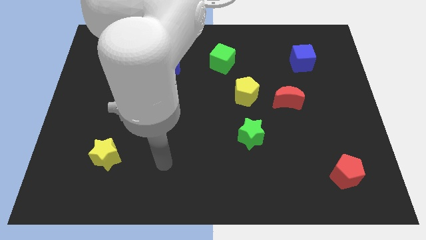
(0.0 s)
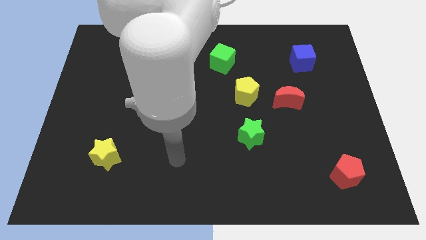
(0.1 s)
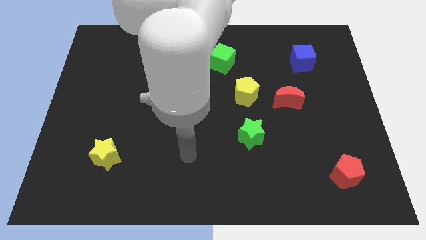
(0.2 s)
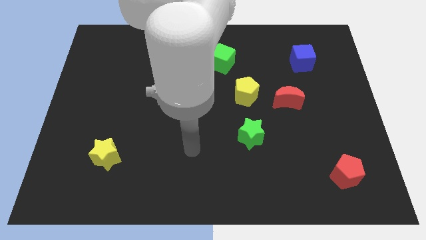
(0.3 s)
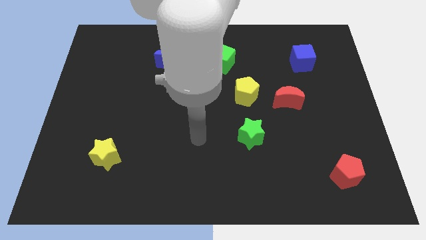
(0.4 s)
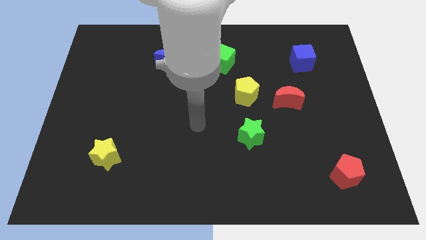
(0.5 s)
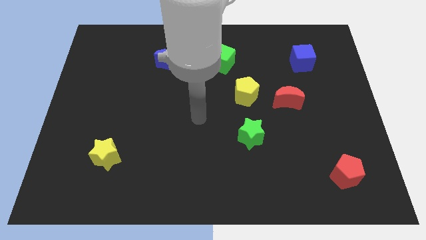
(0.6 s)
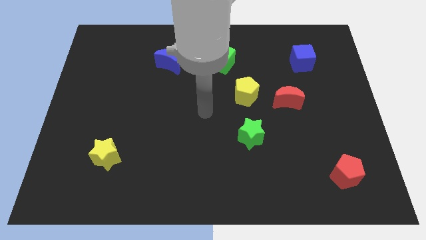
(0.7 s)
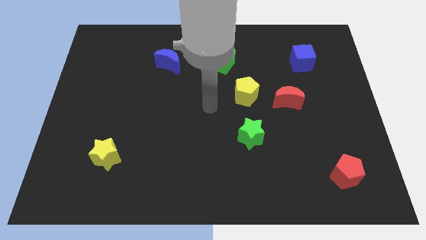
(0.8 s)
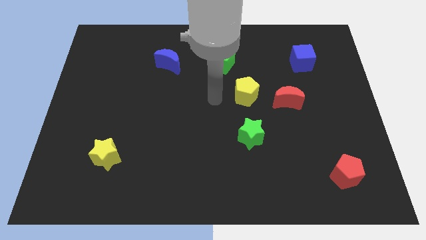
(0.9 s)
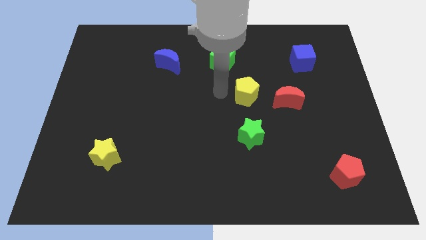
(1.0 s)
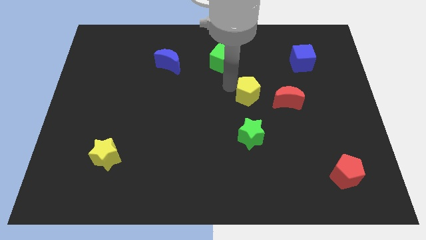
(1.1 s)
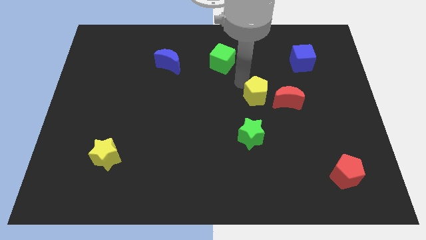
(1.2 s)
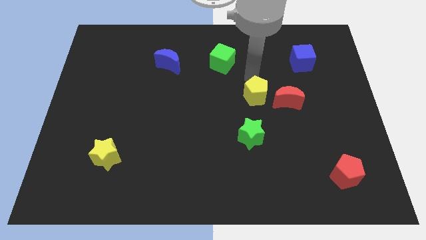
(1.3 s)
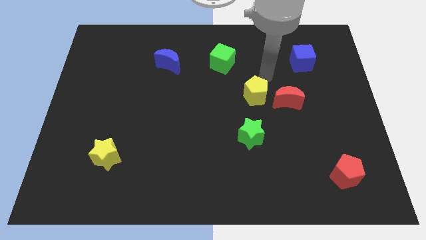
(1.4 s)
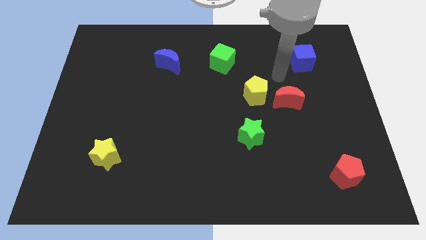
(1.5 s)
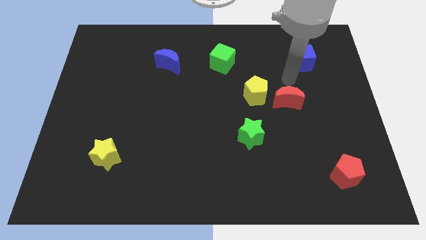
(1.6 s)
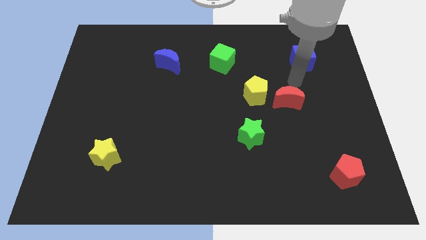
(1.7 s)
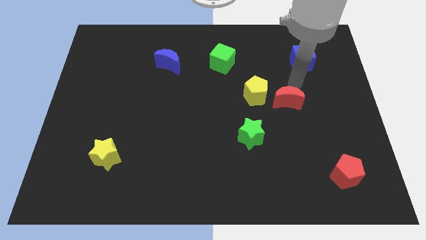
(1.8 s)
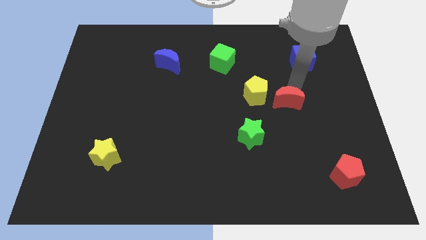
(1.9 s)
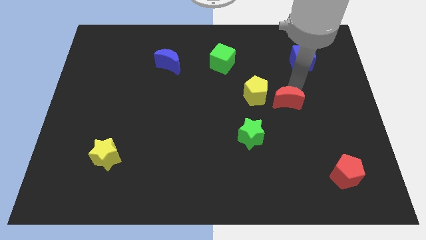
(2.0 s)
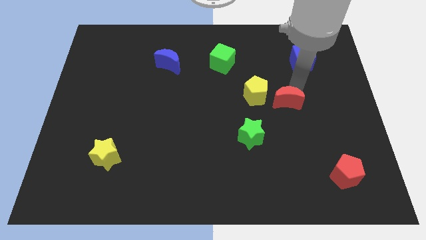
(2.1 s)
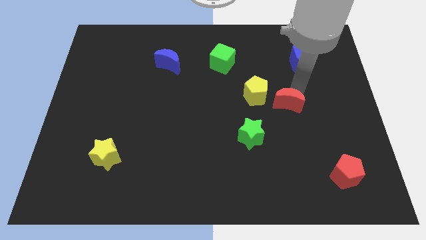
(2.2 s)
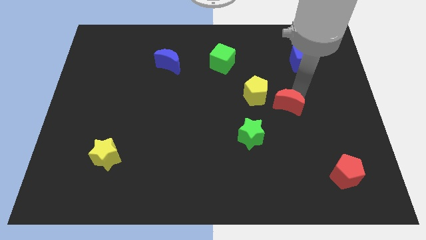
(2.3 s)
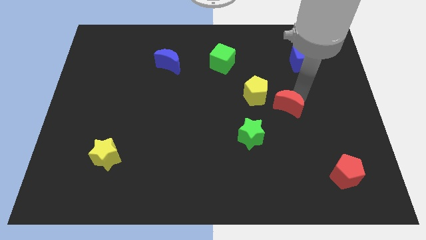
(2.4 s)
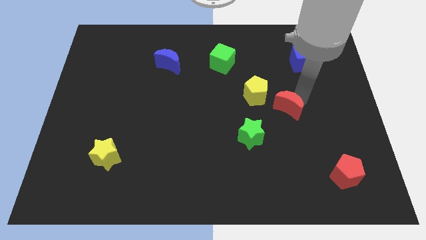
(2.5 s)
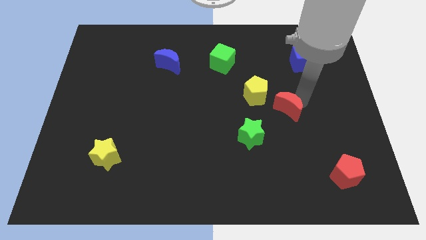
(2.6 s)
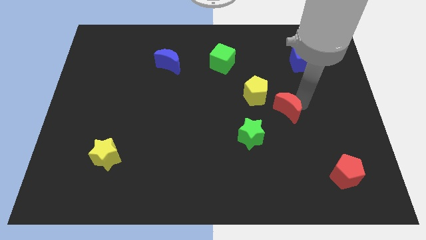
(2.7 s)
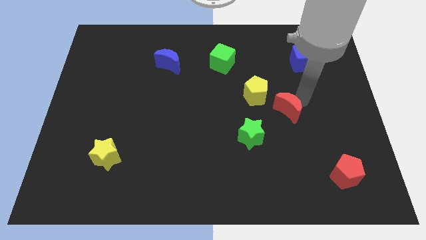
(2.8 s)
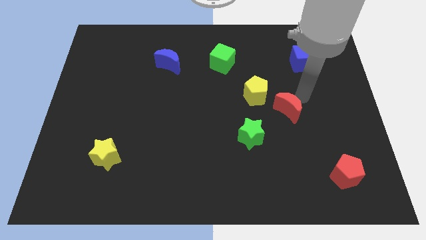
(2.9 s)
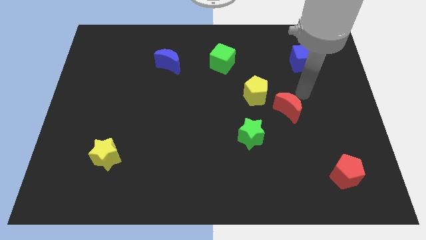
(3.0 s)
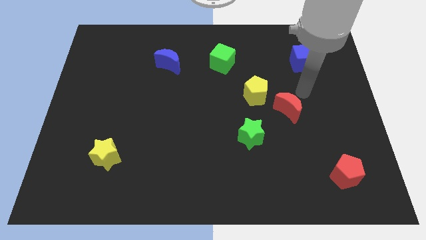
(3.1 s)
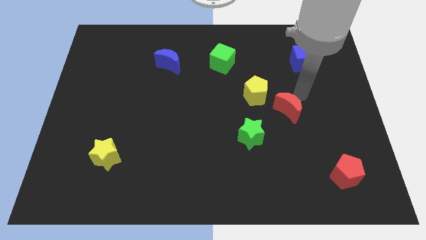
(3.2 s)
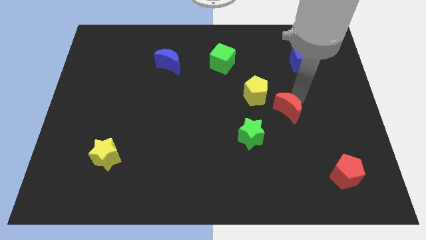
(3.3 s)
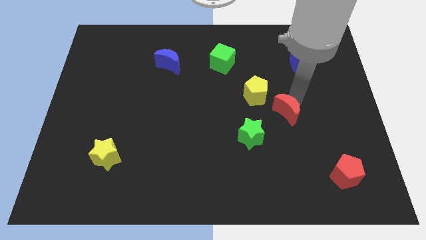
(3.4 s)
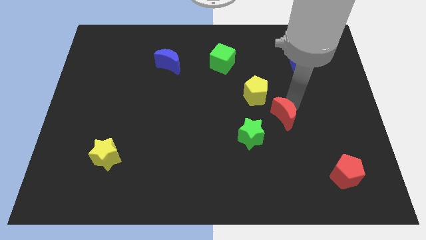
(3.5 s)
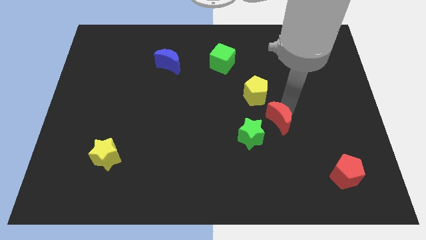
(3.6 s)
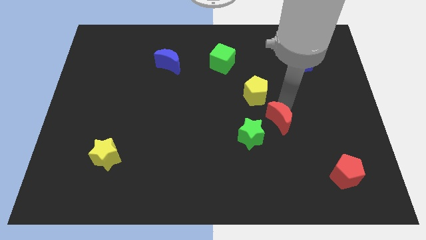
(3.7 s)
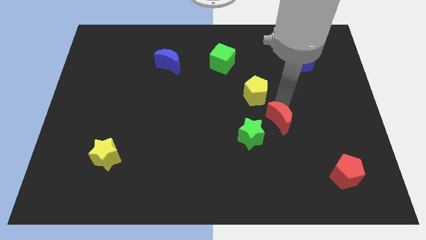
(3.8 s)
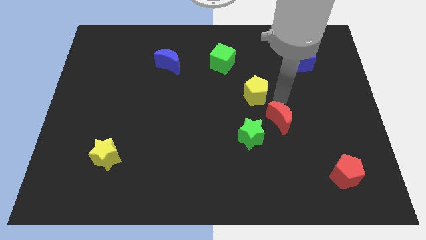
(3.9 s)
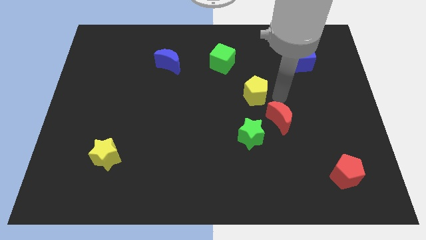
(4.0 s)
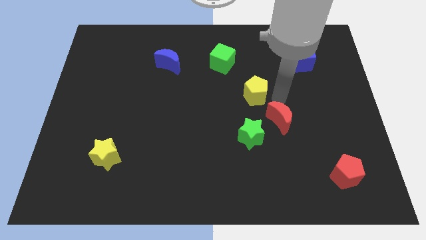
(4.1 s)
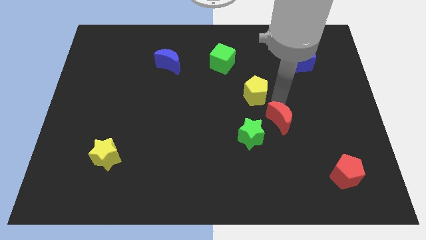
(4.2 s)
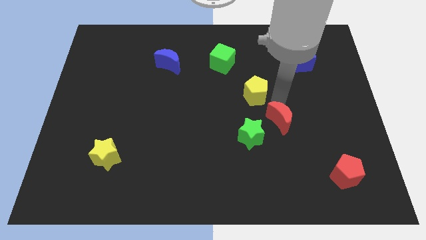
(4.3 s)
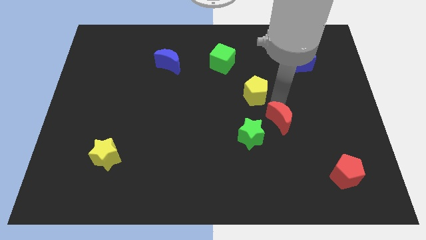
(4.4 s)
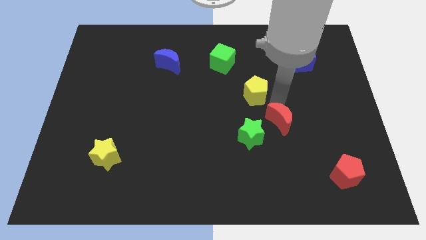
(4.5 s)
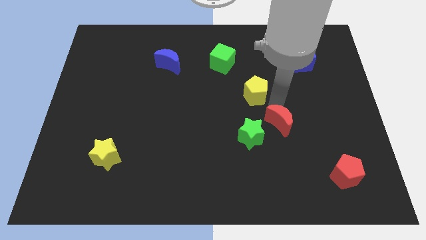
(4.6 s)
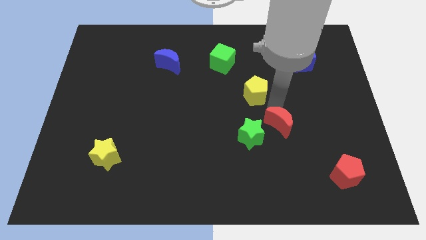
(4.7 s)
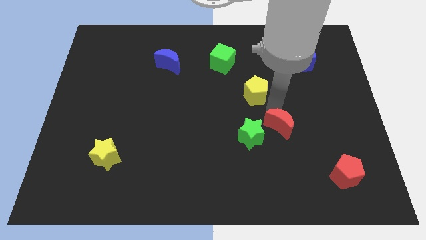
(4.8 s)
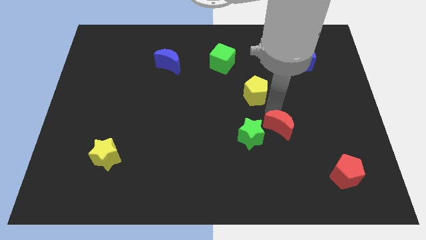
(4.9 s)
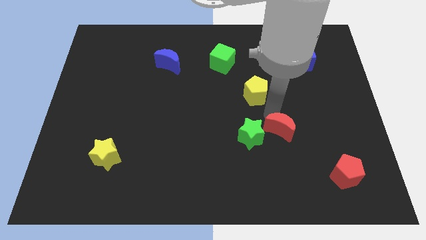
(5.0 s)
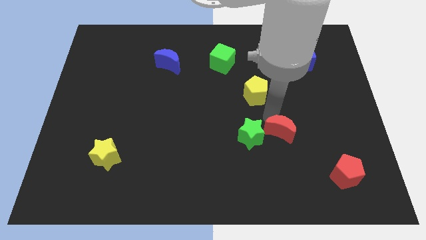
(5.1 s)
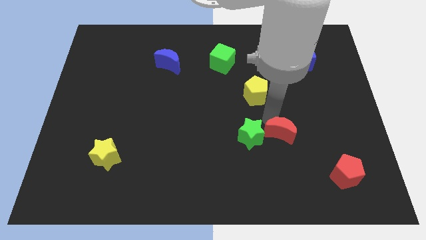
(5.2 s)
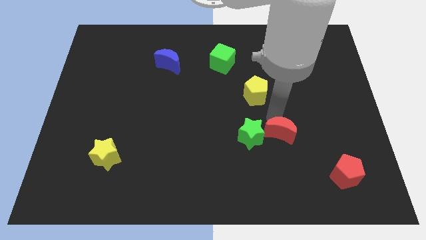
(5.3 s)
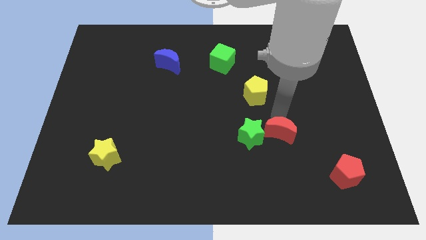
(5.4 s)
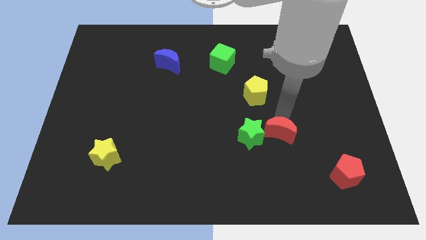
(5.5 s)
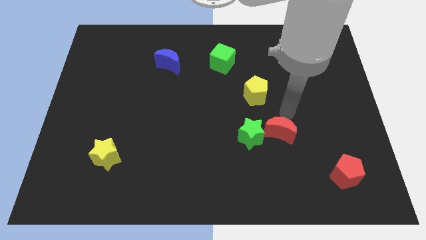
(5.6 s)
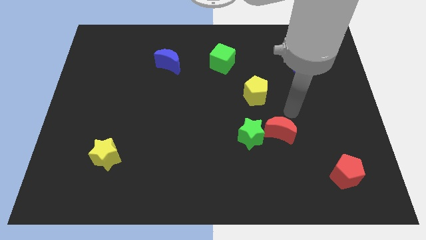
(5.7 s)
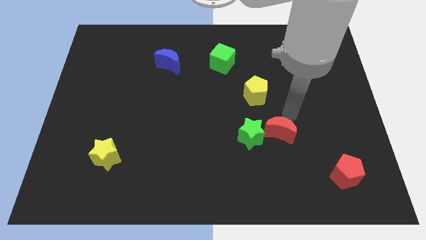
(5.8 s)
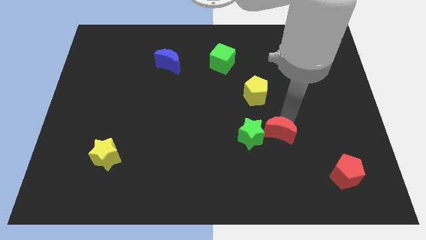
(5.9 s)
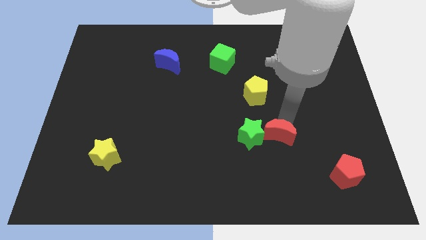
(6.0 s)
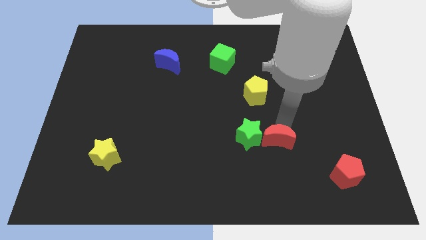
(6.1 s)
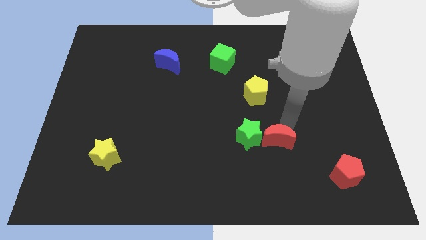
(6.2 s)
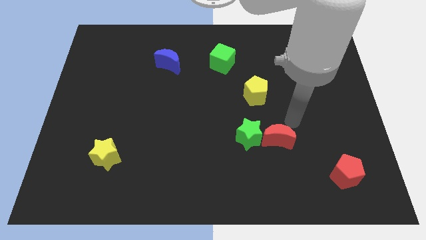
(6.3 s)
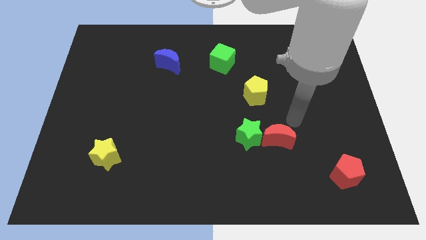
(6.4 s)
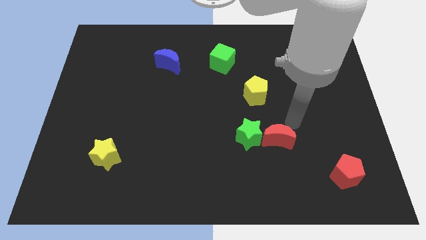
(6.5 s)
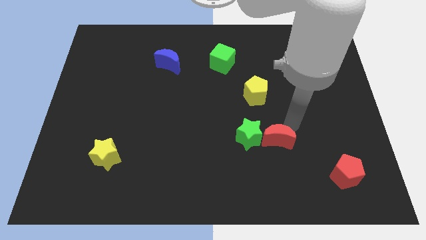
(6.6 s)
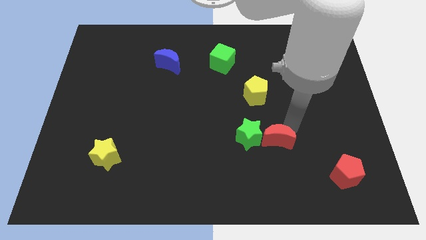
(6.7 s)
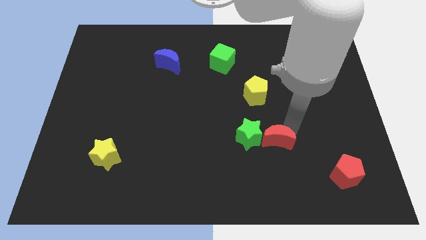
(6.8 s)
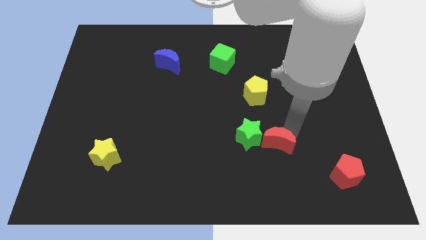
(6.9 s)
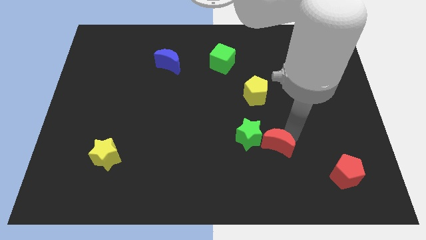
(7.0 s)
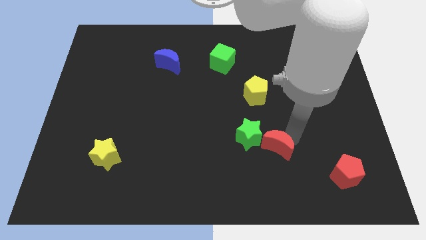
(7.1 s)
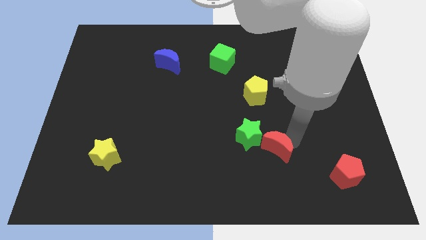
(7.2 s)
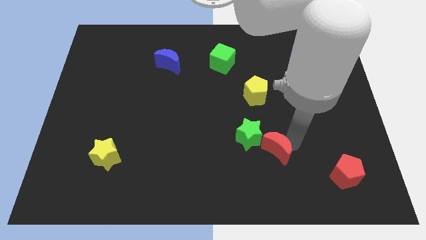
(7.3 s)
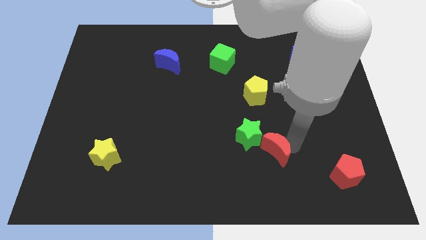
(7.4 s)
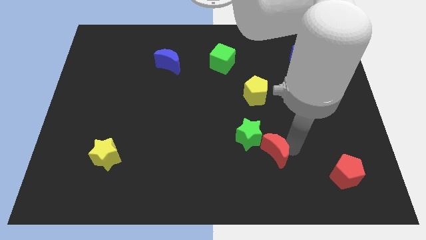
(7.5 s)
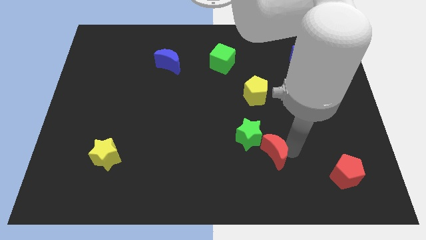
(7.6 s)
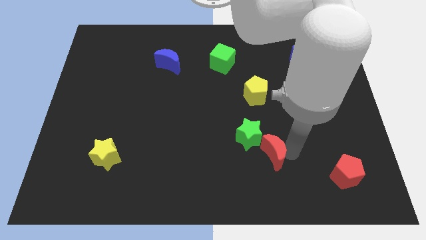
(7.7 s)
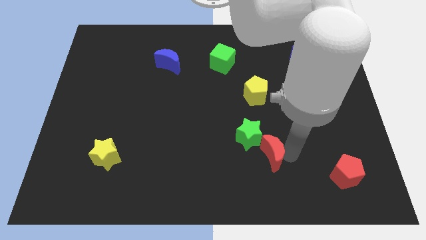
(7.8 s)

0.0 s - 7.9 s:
push the red moon below the green star
